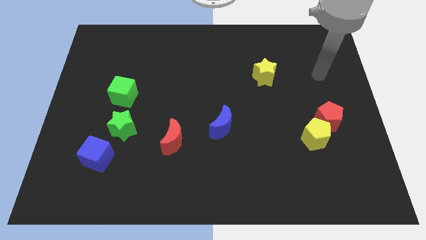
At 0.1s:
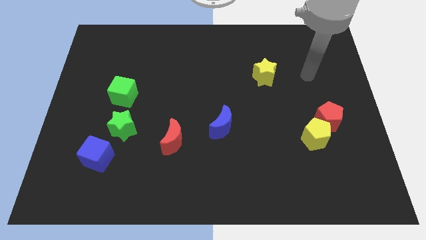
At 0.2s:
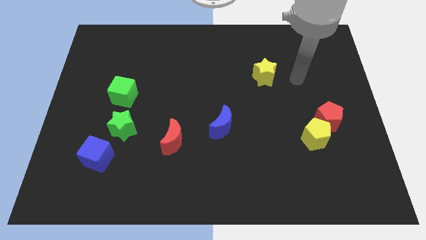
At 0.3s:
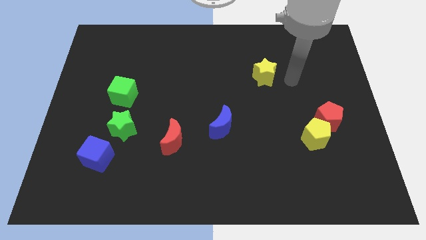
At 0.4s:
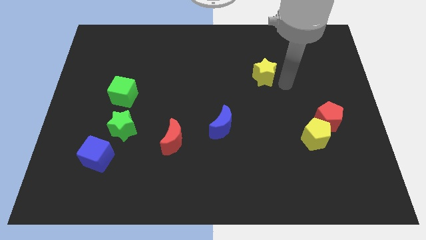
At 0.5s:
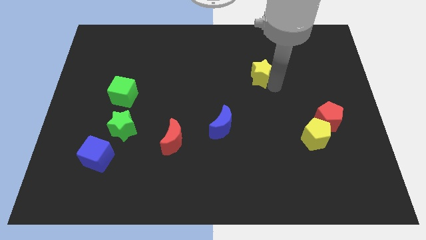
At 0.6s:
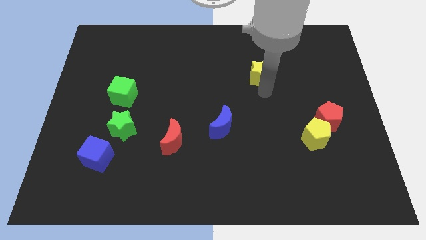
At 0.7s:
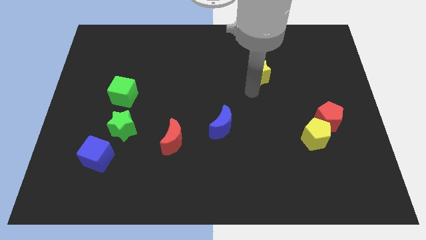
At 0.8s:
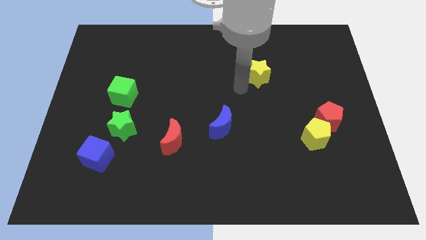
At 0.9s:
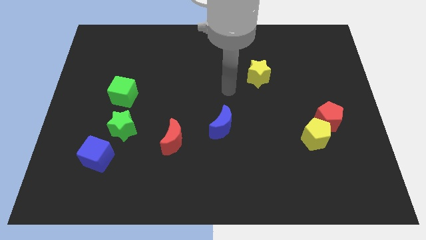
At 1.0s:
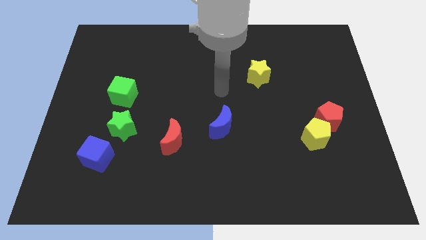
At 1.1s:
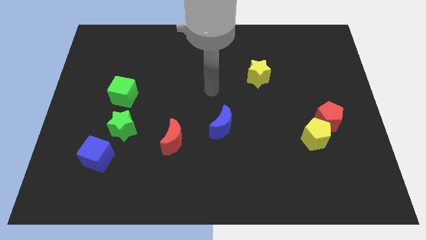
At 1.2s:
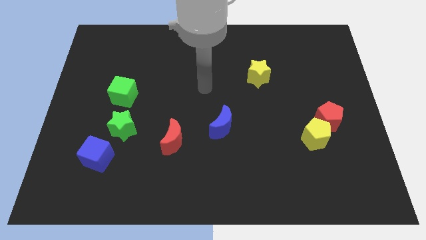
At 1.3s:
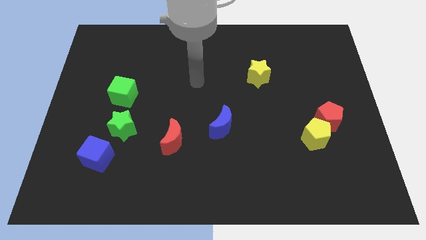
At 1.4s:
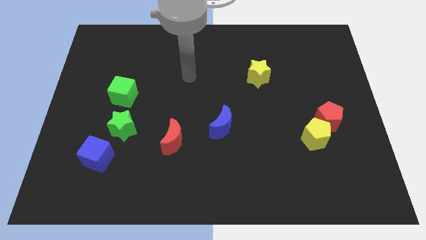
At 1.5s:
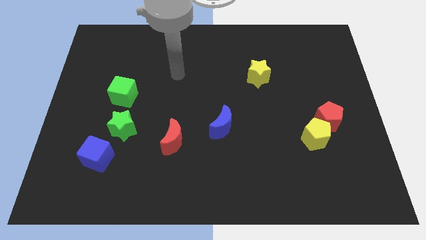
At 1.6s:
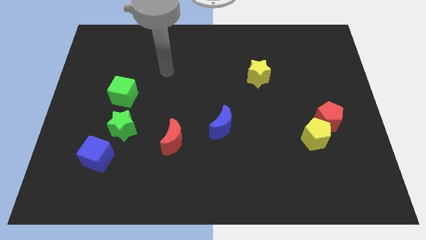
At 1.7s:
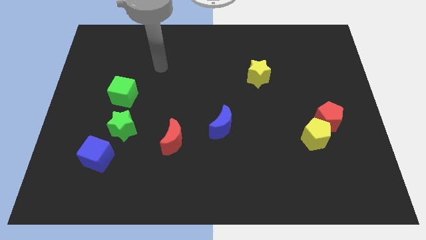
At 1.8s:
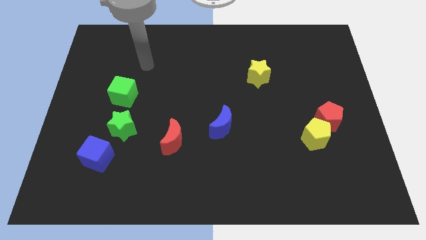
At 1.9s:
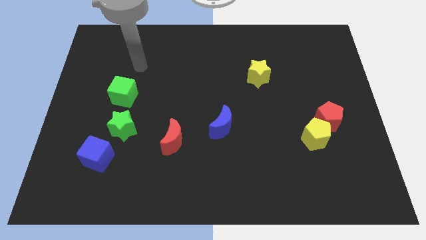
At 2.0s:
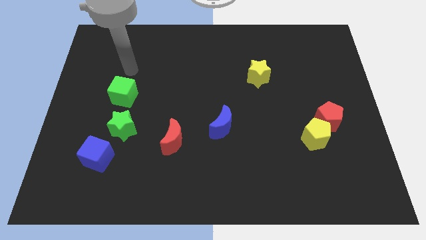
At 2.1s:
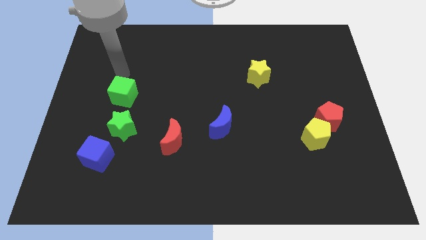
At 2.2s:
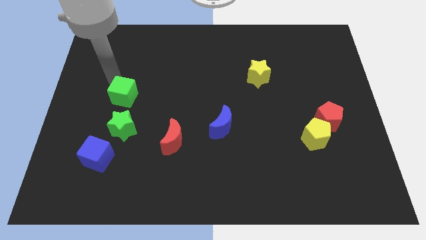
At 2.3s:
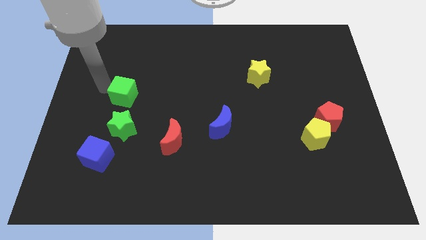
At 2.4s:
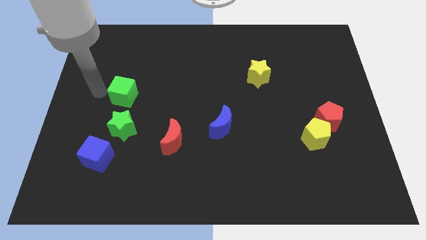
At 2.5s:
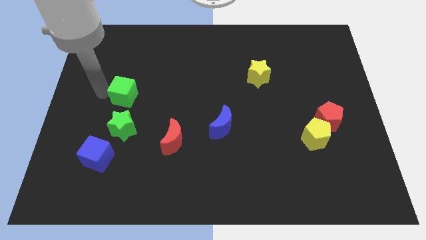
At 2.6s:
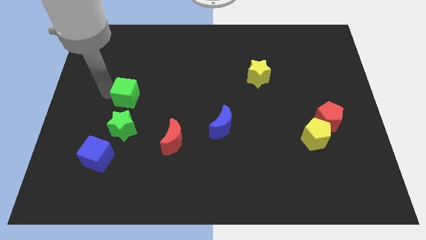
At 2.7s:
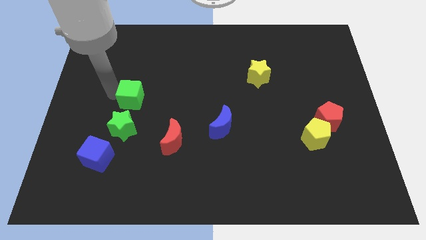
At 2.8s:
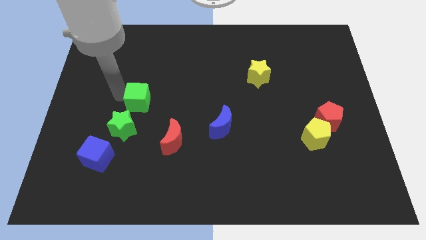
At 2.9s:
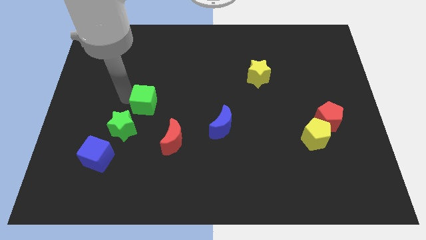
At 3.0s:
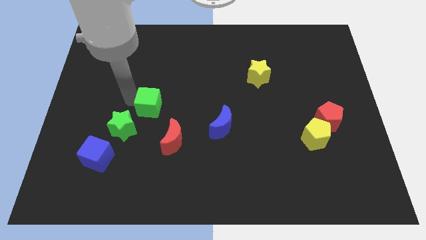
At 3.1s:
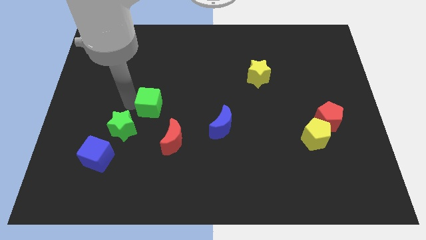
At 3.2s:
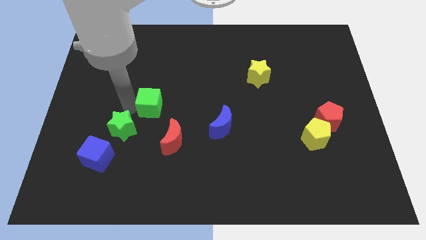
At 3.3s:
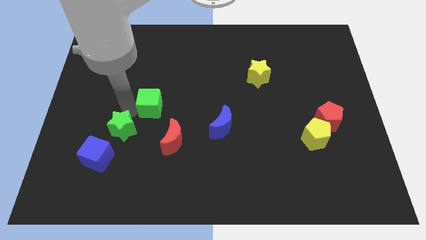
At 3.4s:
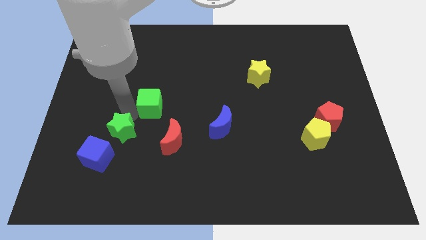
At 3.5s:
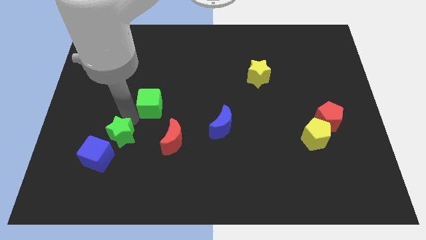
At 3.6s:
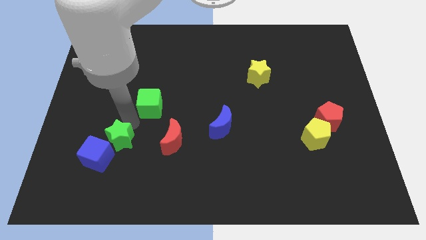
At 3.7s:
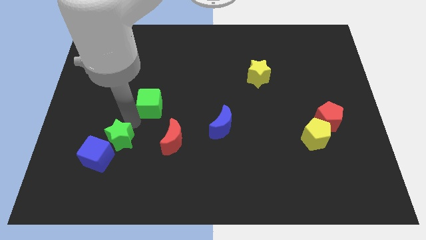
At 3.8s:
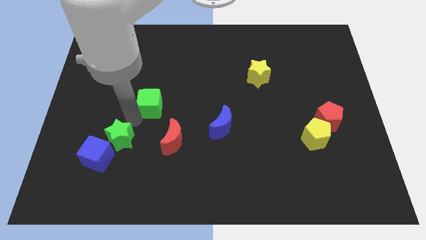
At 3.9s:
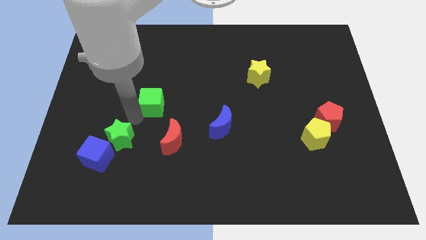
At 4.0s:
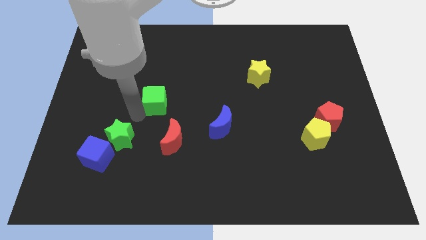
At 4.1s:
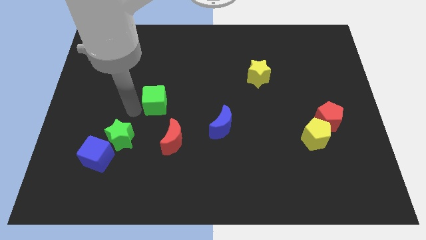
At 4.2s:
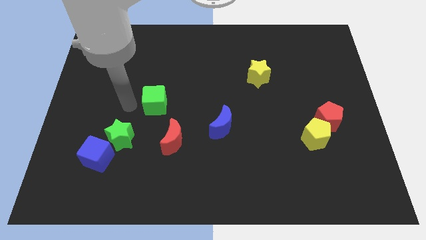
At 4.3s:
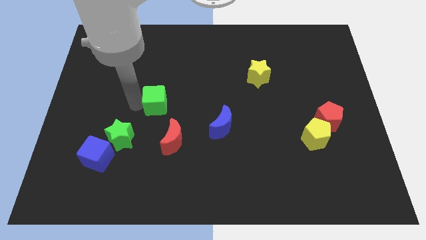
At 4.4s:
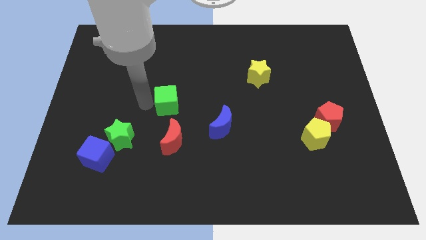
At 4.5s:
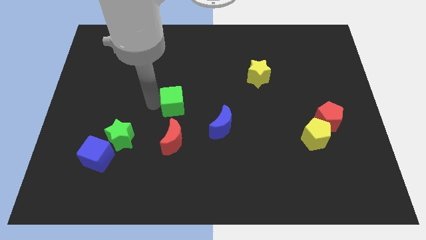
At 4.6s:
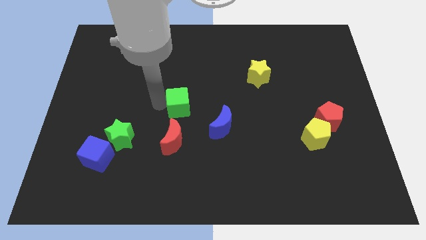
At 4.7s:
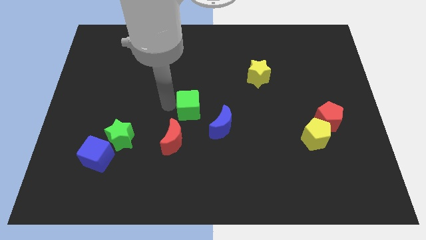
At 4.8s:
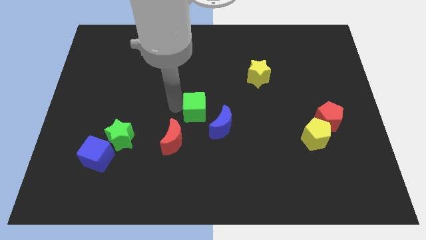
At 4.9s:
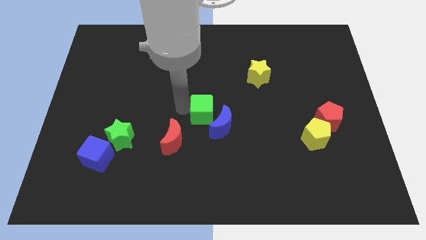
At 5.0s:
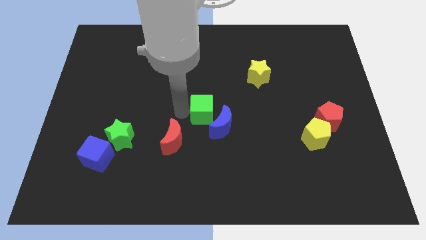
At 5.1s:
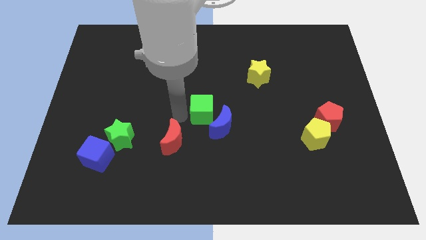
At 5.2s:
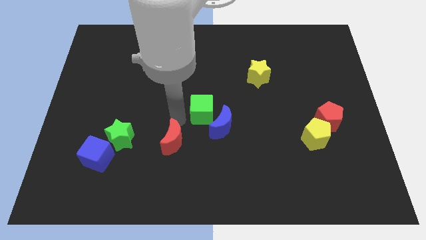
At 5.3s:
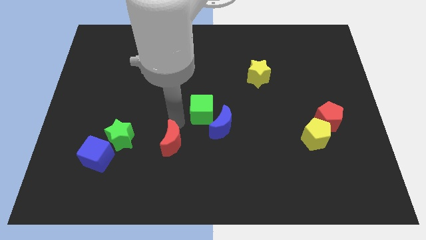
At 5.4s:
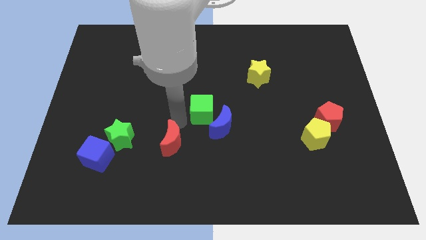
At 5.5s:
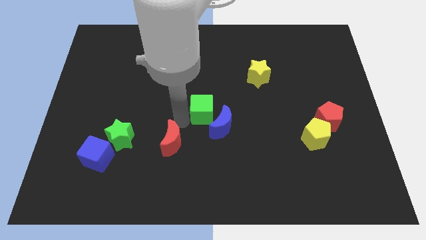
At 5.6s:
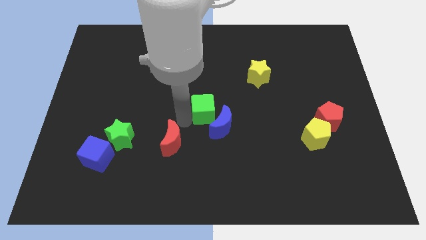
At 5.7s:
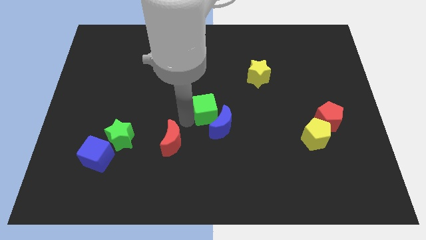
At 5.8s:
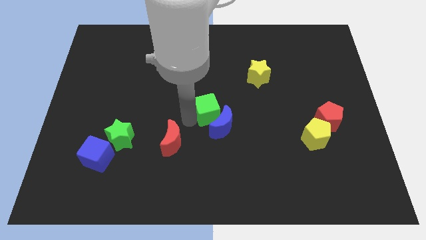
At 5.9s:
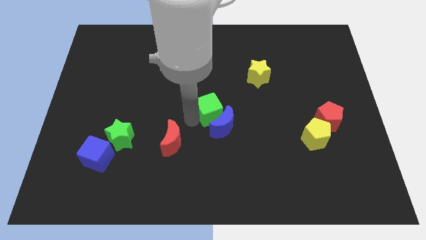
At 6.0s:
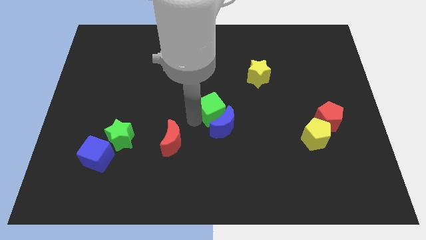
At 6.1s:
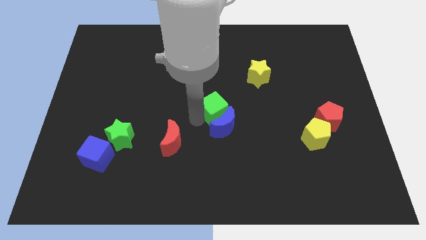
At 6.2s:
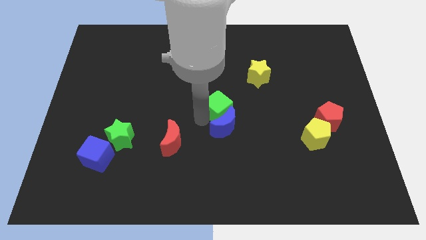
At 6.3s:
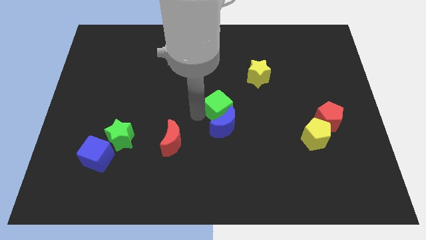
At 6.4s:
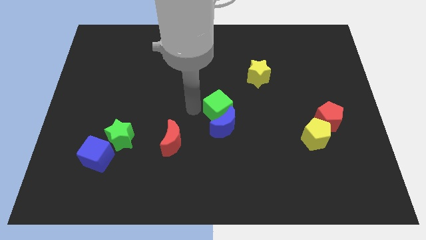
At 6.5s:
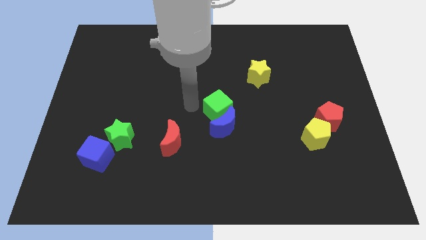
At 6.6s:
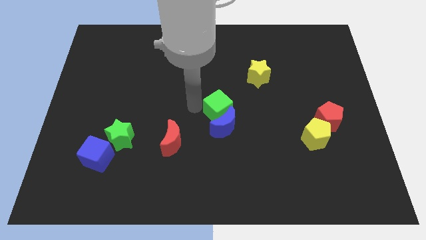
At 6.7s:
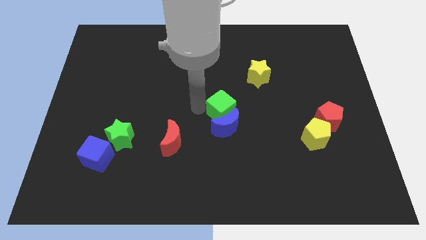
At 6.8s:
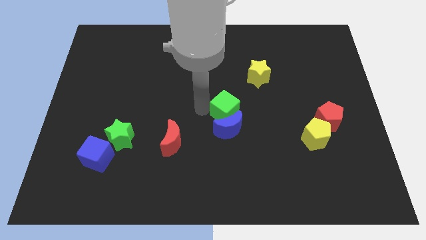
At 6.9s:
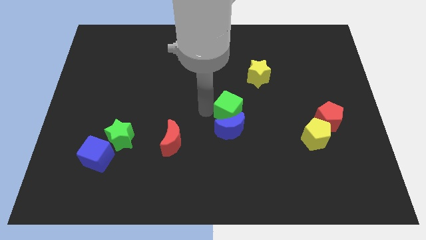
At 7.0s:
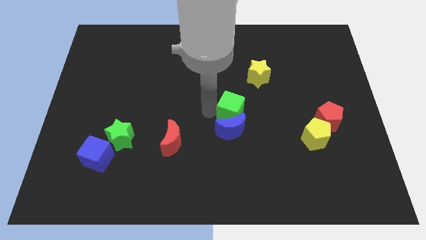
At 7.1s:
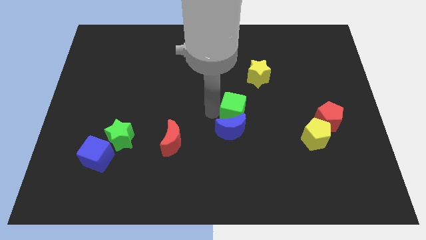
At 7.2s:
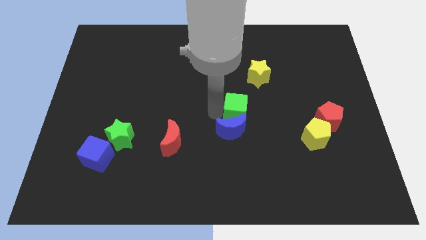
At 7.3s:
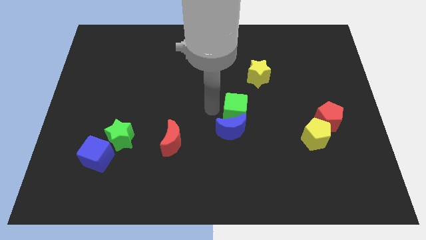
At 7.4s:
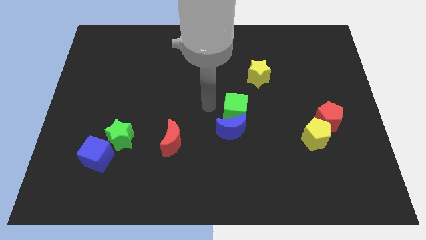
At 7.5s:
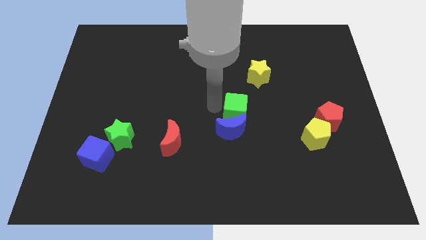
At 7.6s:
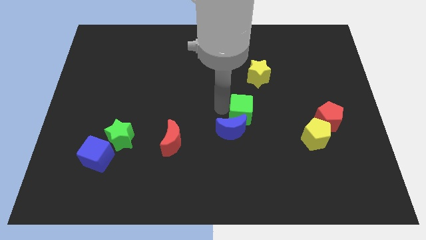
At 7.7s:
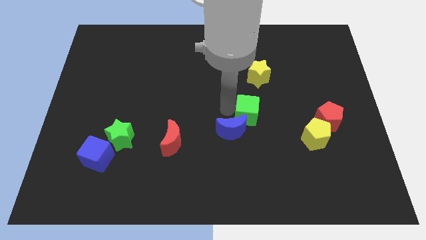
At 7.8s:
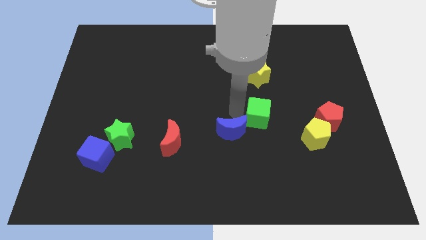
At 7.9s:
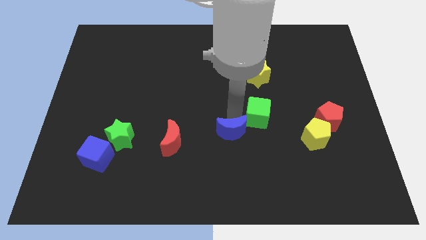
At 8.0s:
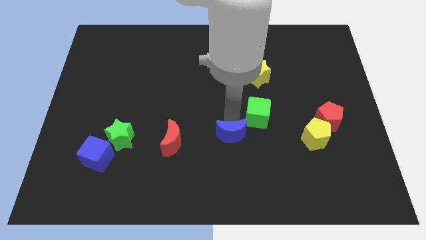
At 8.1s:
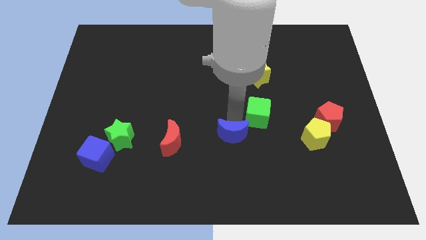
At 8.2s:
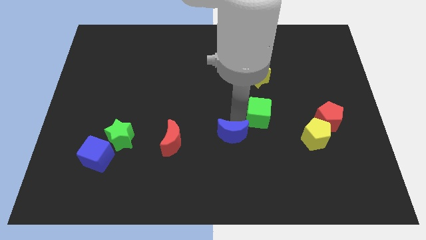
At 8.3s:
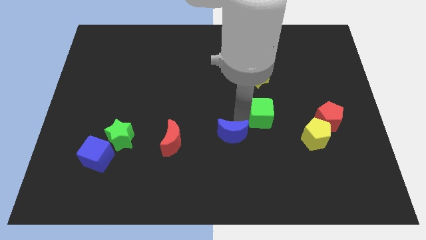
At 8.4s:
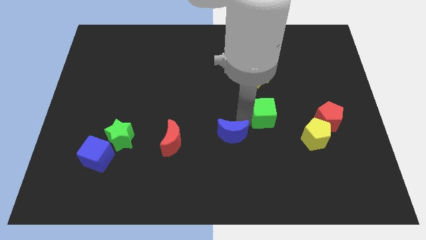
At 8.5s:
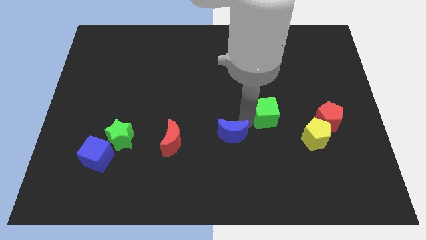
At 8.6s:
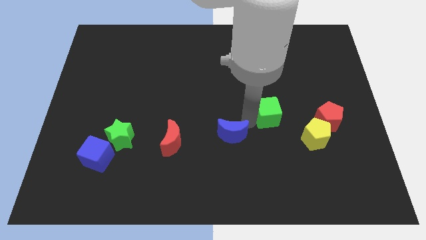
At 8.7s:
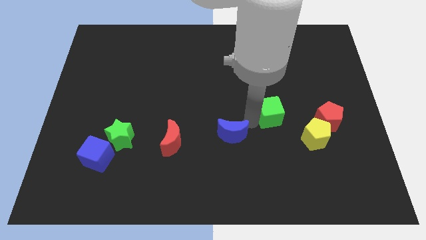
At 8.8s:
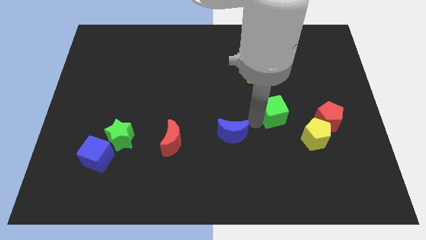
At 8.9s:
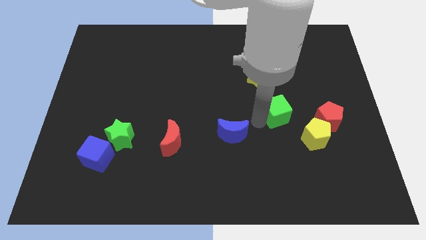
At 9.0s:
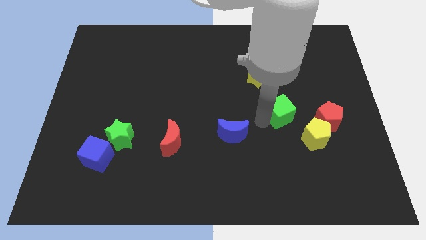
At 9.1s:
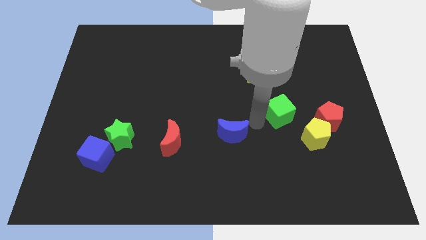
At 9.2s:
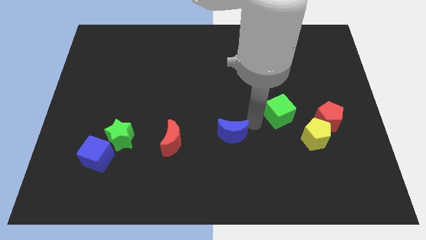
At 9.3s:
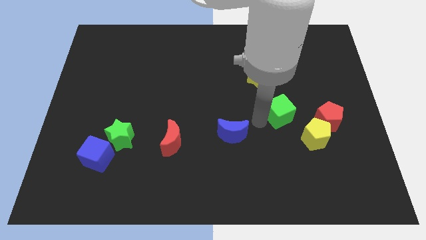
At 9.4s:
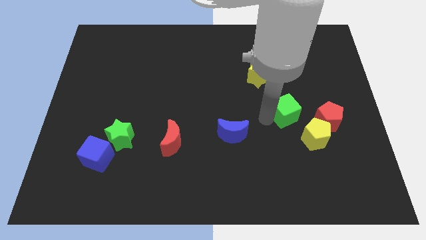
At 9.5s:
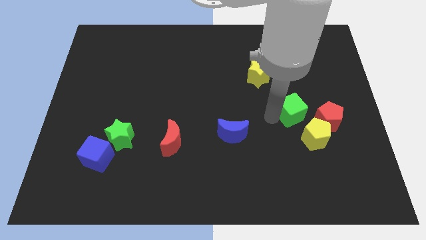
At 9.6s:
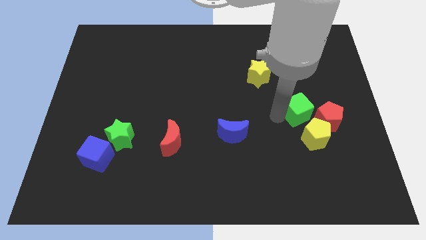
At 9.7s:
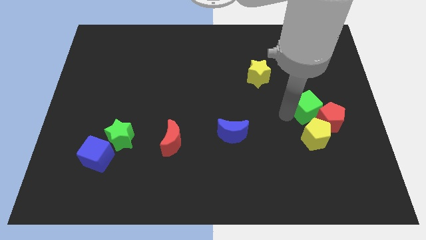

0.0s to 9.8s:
put the green cube close to the red pentagon
